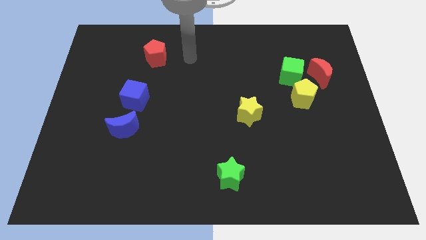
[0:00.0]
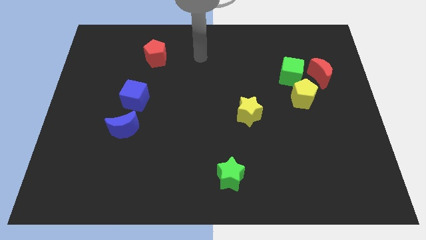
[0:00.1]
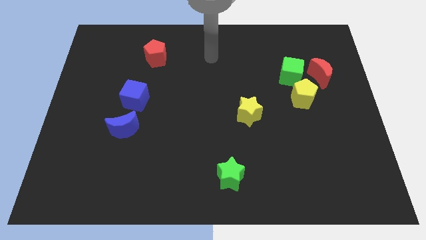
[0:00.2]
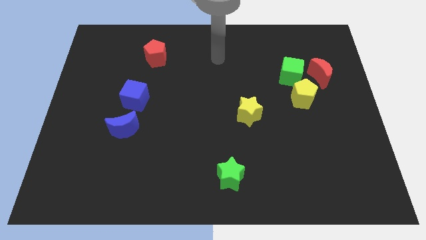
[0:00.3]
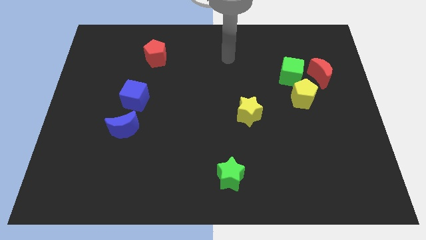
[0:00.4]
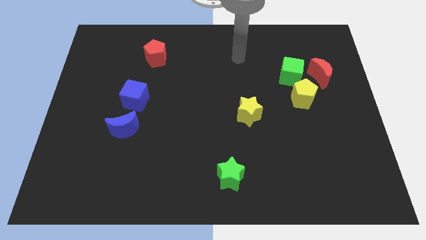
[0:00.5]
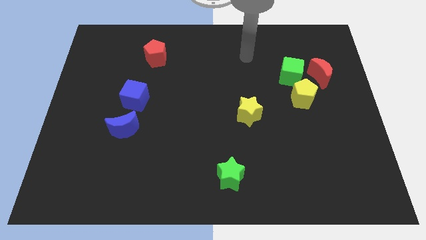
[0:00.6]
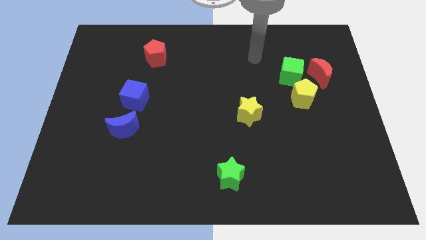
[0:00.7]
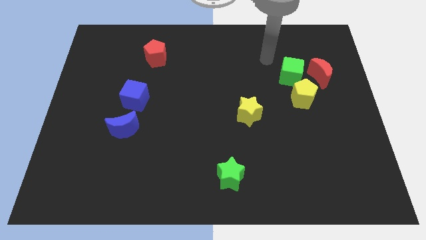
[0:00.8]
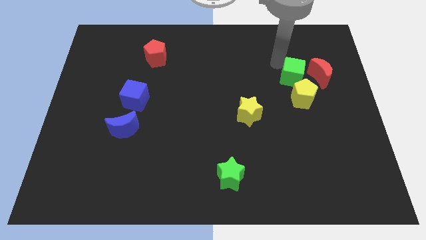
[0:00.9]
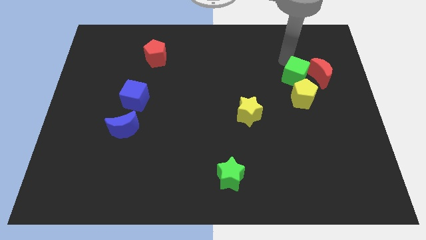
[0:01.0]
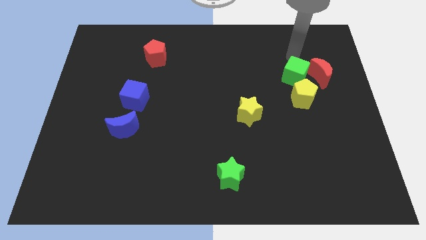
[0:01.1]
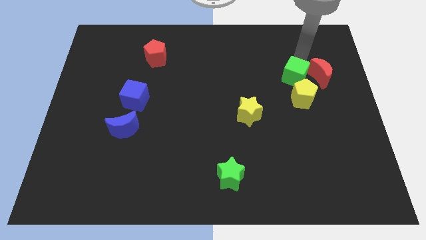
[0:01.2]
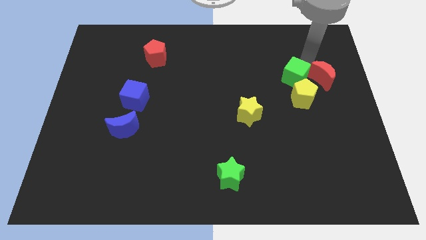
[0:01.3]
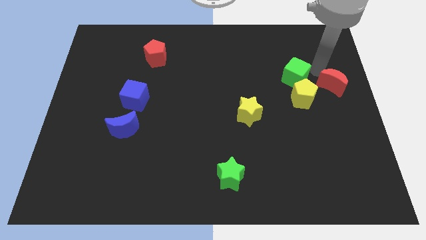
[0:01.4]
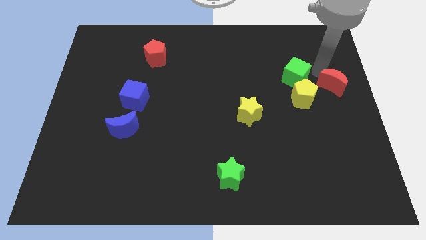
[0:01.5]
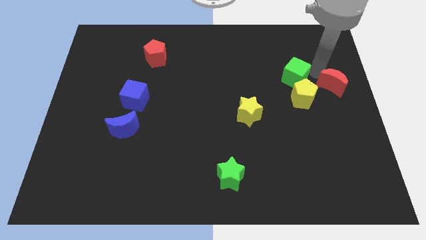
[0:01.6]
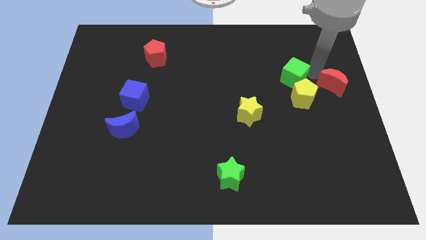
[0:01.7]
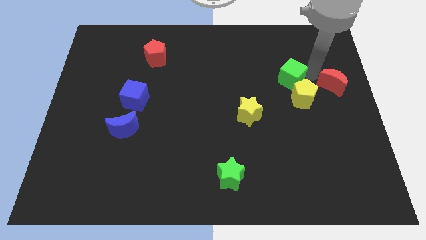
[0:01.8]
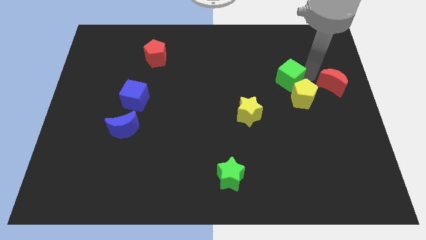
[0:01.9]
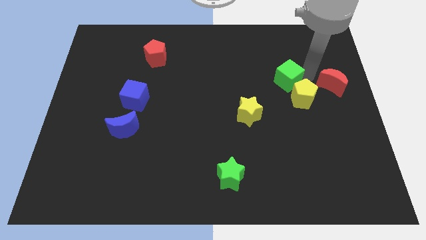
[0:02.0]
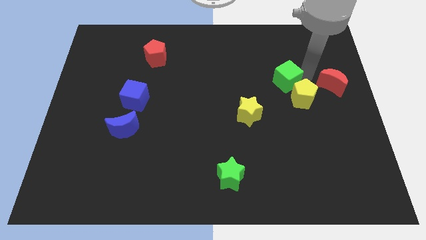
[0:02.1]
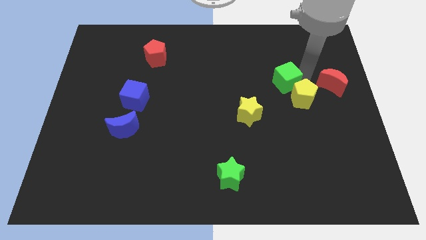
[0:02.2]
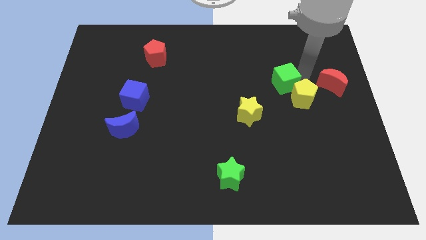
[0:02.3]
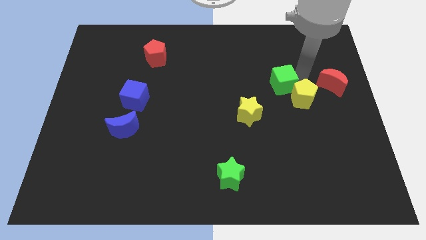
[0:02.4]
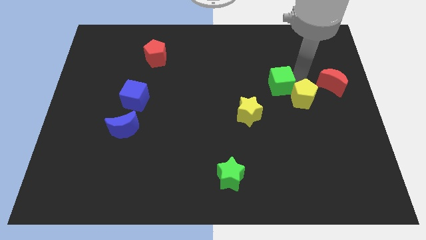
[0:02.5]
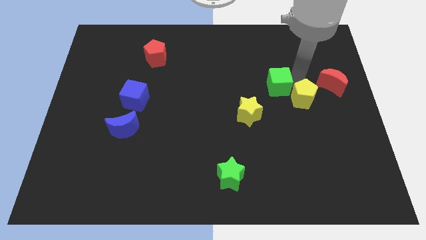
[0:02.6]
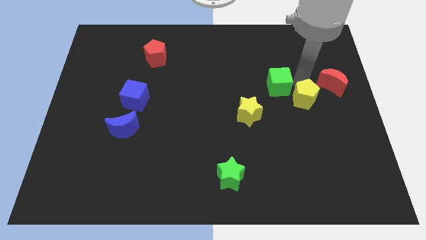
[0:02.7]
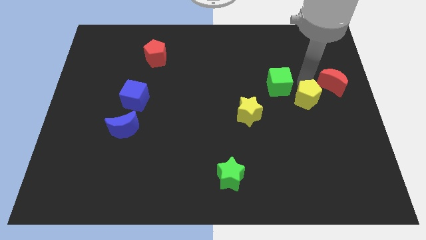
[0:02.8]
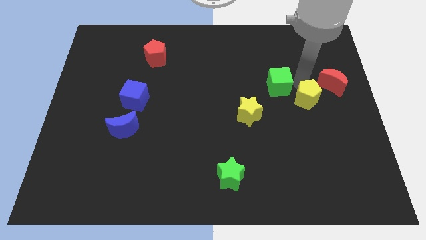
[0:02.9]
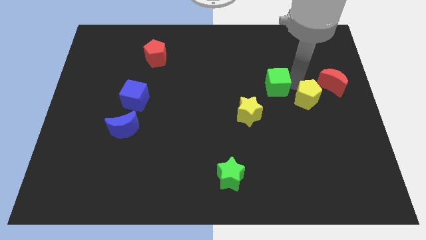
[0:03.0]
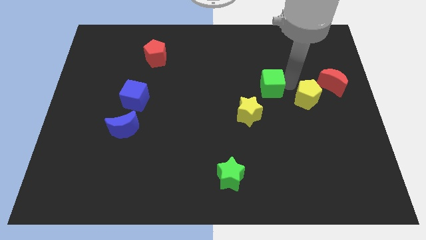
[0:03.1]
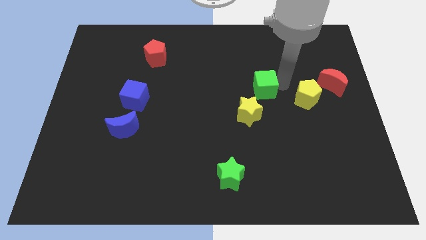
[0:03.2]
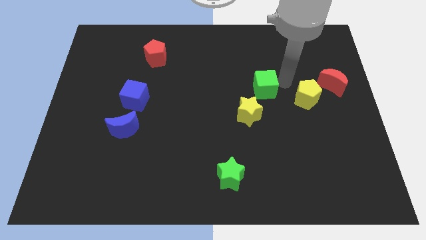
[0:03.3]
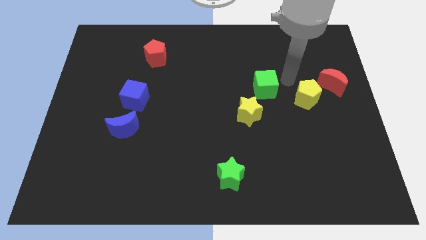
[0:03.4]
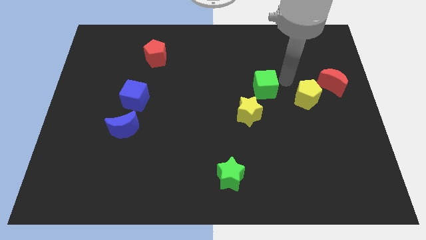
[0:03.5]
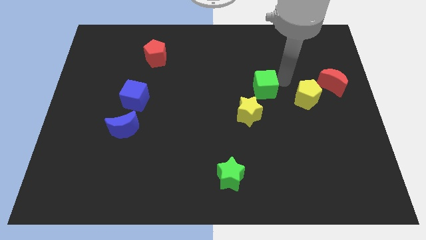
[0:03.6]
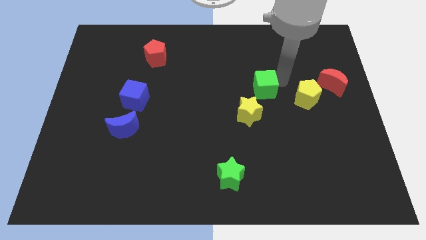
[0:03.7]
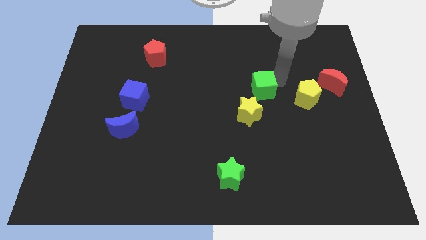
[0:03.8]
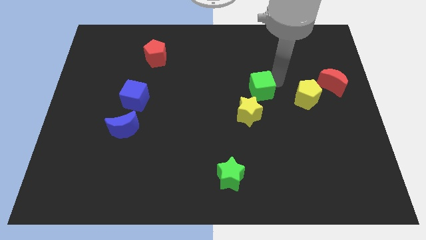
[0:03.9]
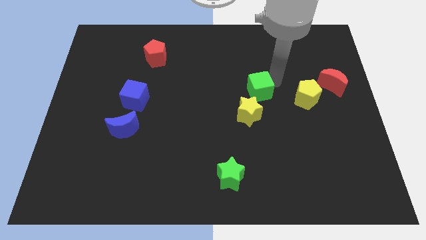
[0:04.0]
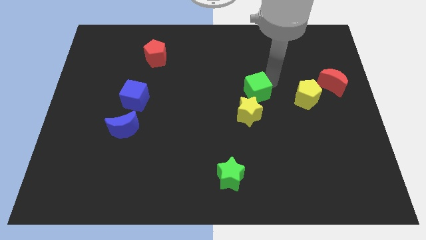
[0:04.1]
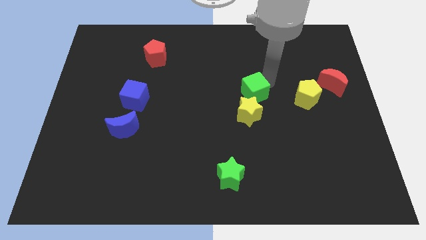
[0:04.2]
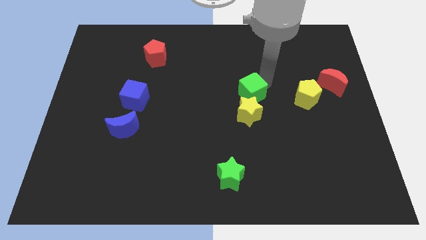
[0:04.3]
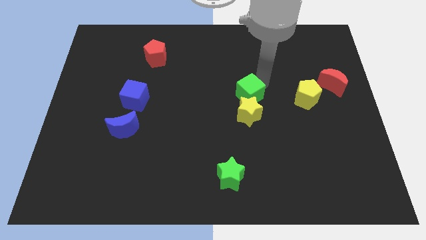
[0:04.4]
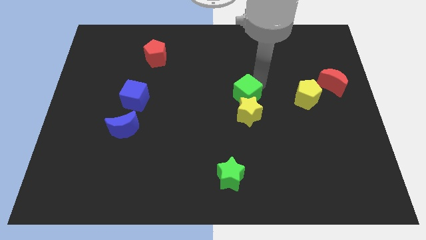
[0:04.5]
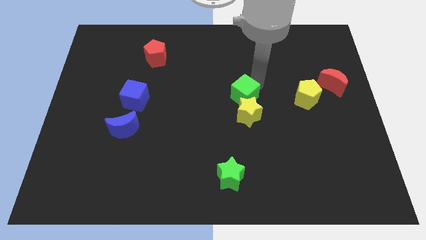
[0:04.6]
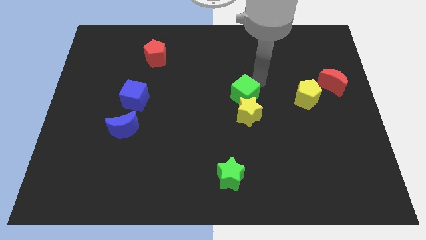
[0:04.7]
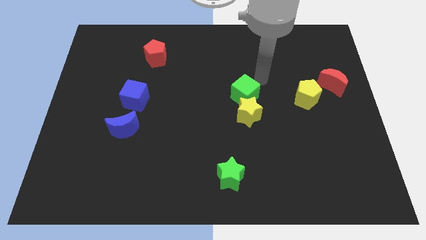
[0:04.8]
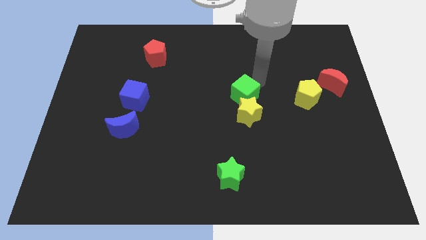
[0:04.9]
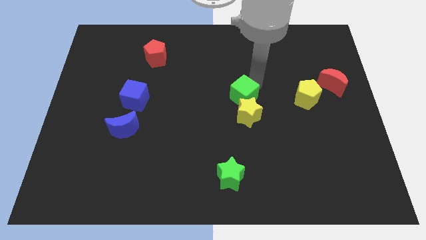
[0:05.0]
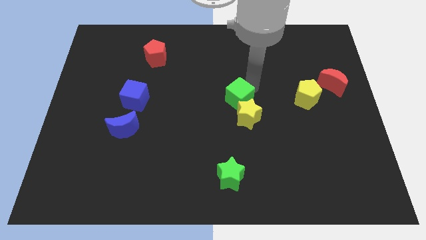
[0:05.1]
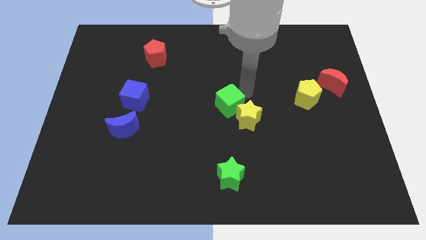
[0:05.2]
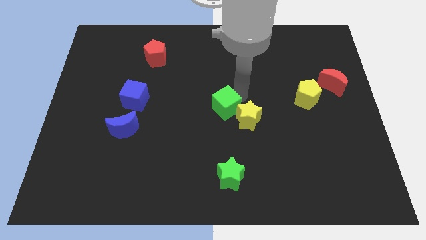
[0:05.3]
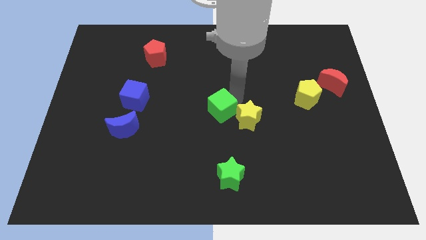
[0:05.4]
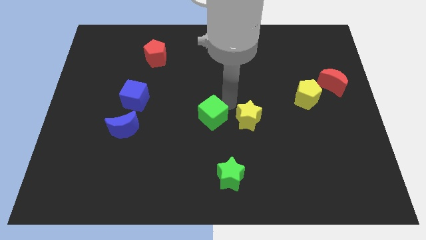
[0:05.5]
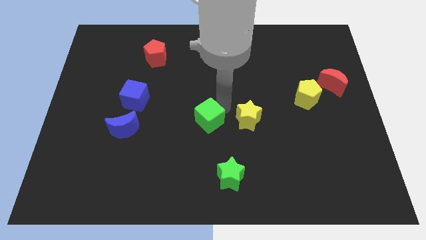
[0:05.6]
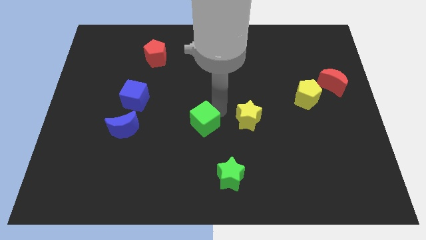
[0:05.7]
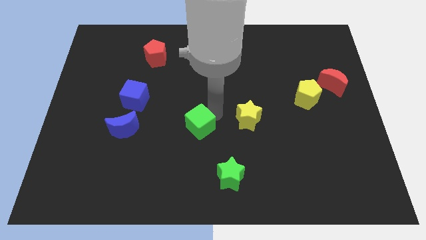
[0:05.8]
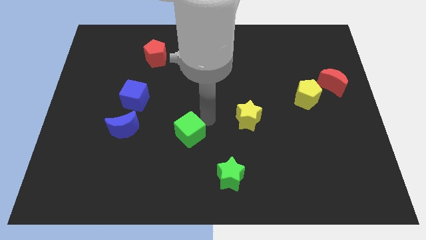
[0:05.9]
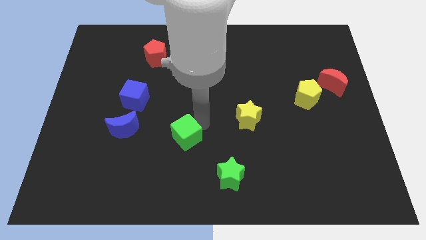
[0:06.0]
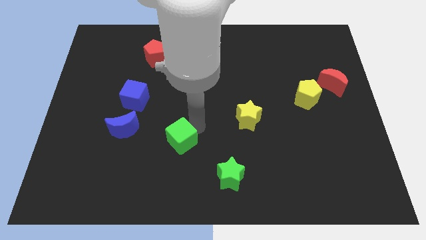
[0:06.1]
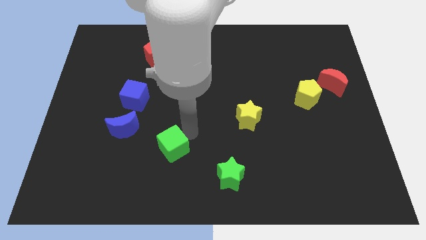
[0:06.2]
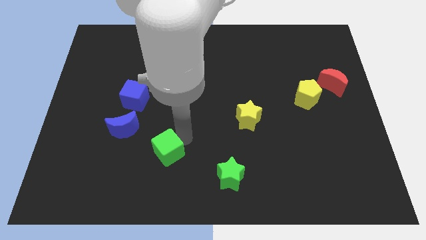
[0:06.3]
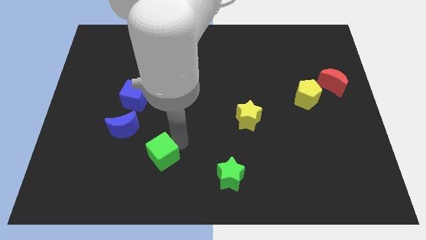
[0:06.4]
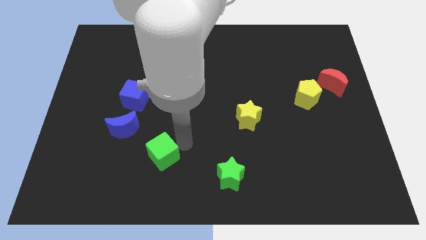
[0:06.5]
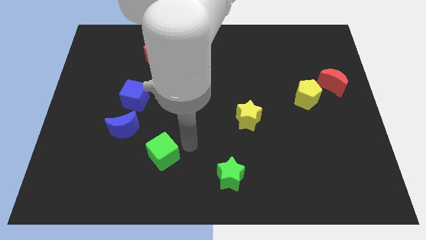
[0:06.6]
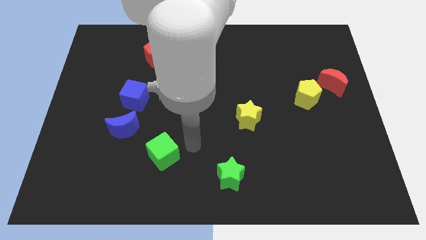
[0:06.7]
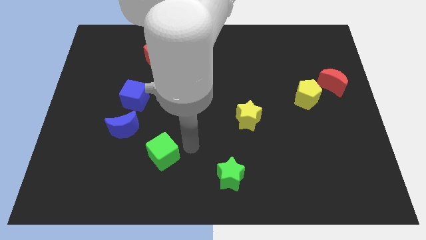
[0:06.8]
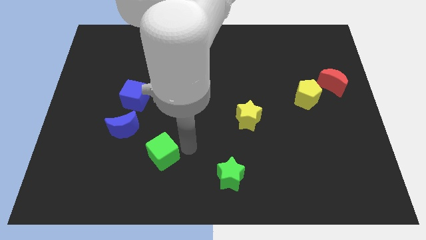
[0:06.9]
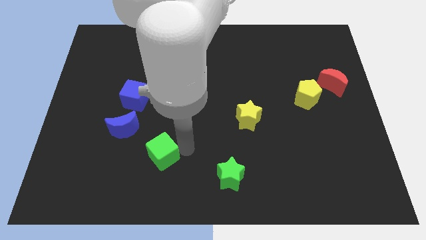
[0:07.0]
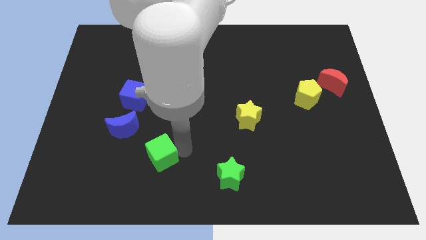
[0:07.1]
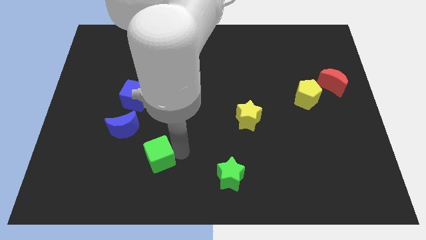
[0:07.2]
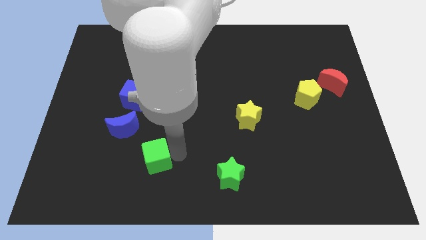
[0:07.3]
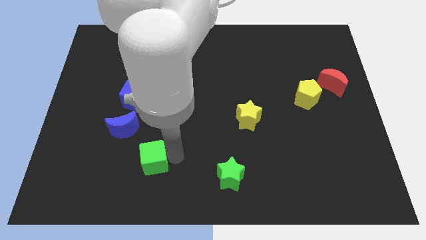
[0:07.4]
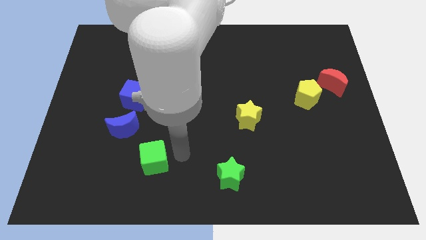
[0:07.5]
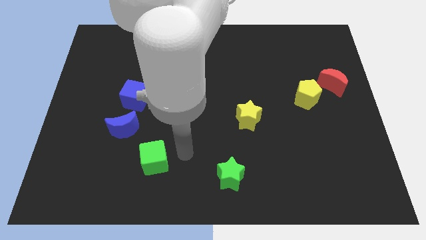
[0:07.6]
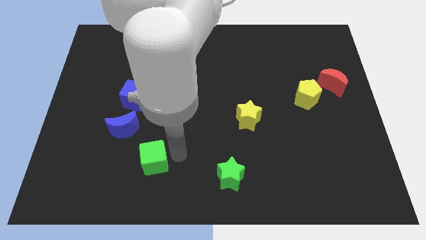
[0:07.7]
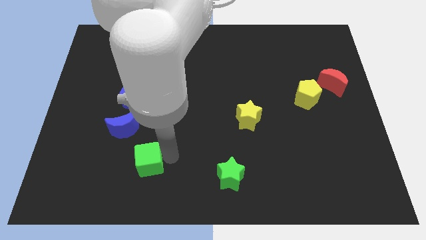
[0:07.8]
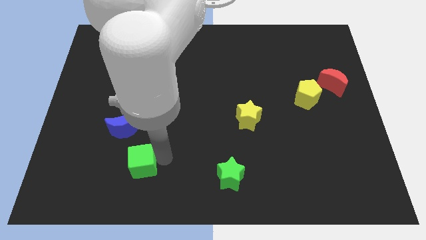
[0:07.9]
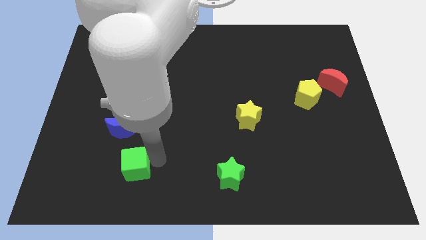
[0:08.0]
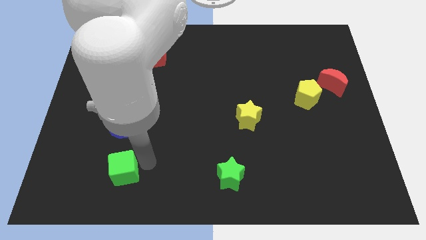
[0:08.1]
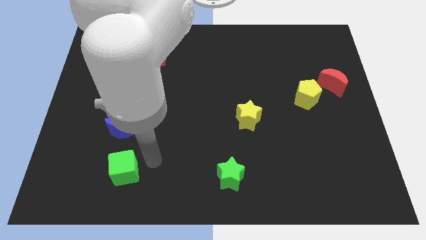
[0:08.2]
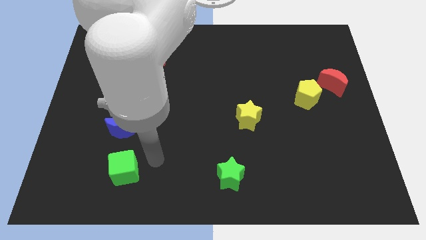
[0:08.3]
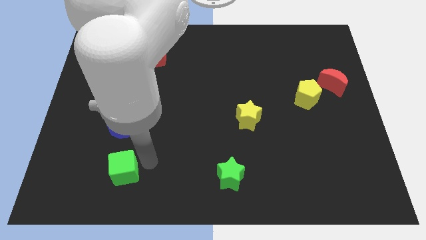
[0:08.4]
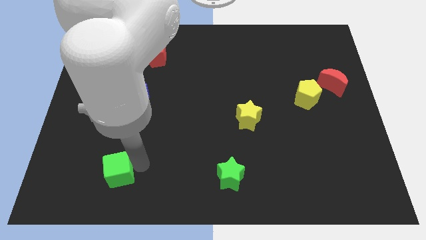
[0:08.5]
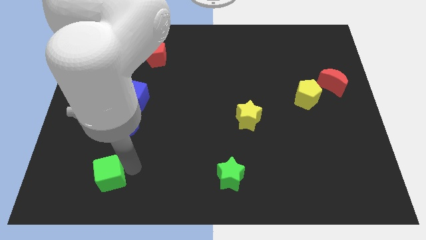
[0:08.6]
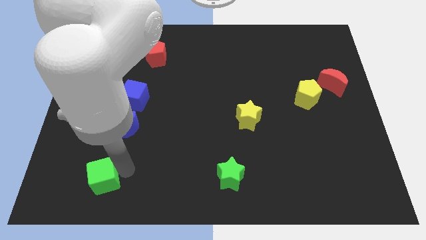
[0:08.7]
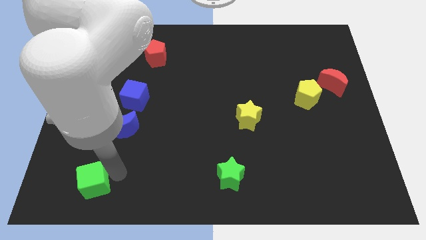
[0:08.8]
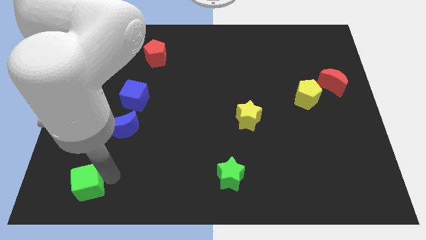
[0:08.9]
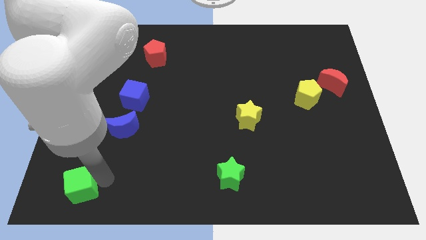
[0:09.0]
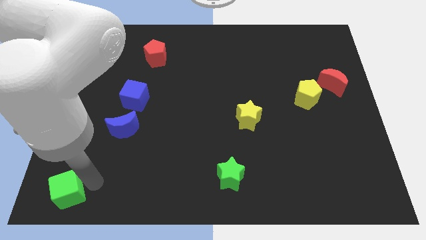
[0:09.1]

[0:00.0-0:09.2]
move the green cube to the bottom left
